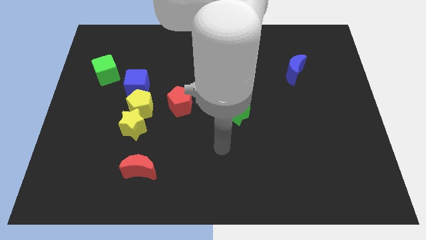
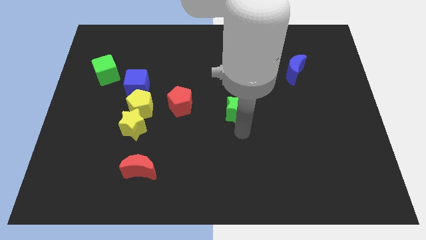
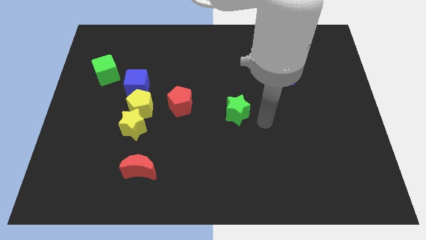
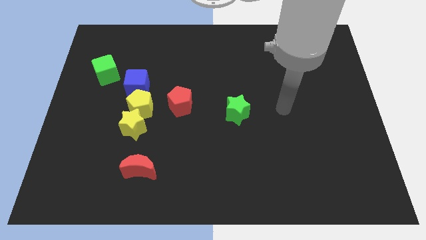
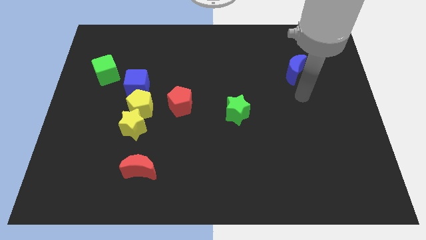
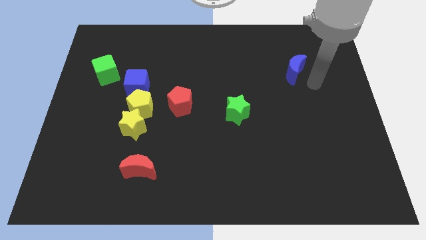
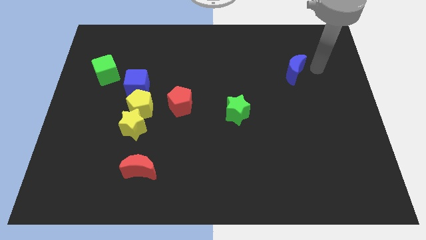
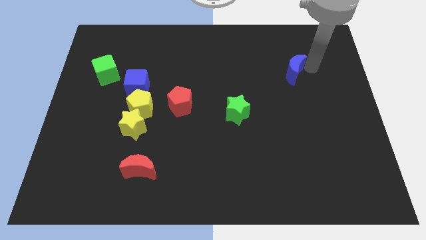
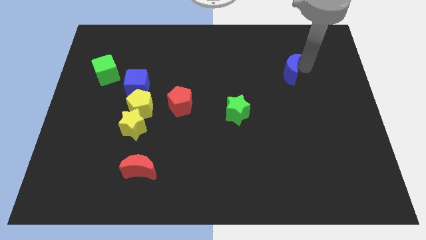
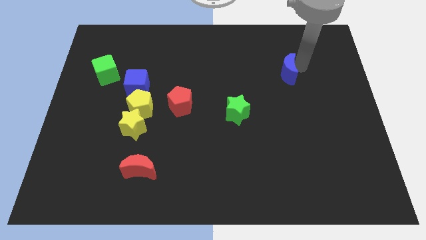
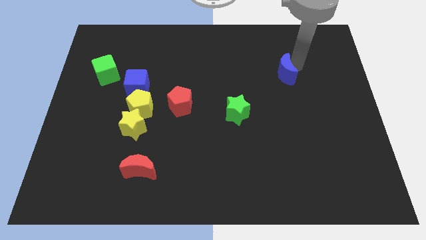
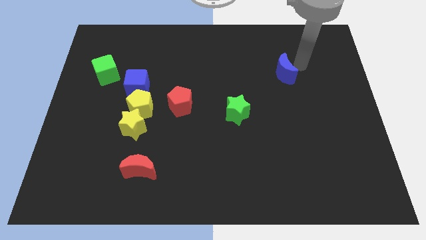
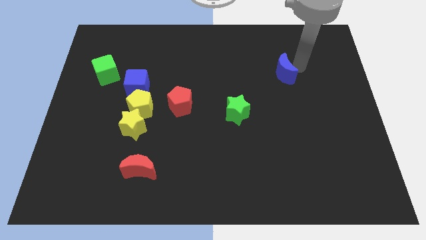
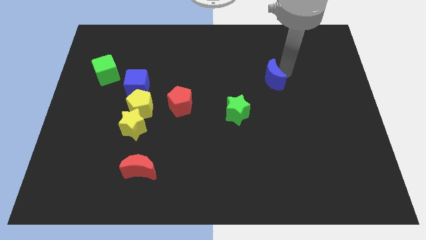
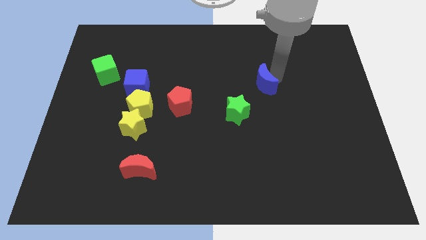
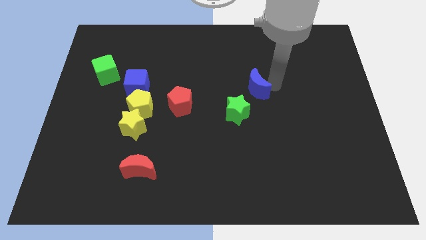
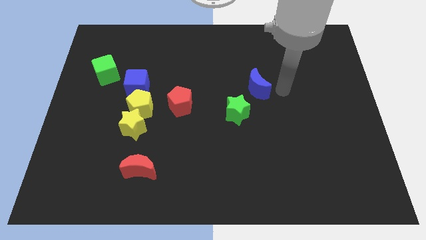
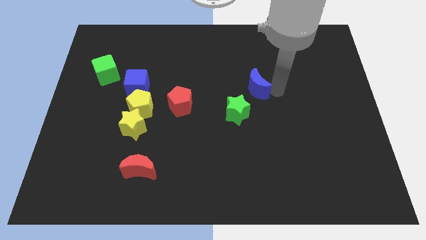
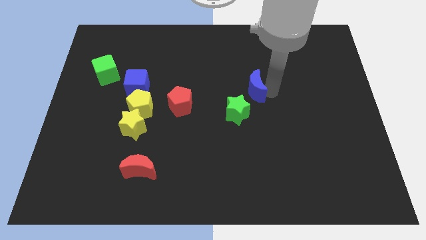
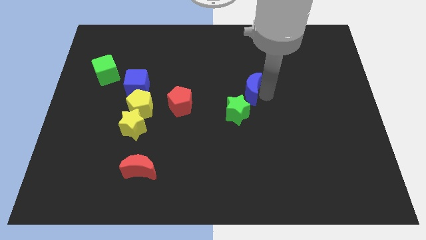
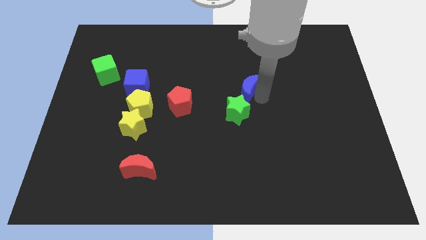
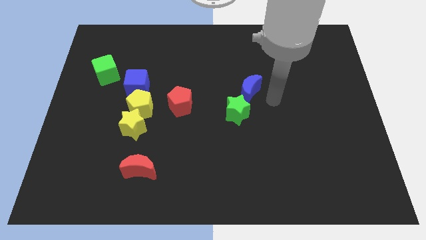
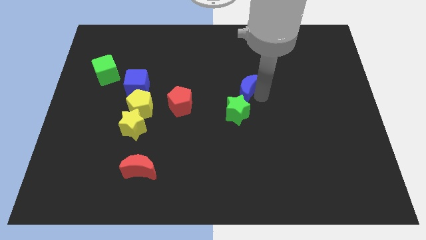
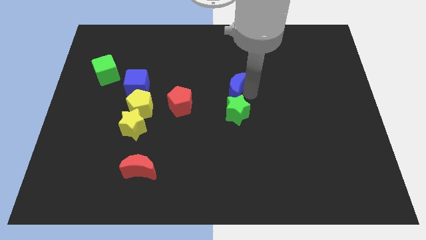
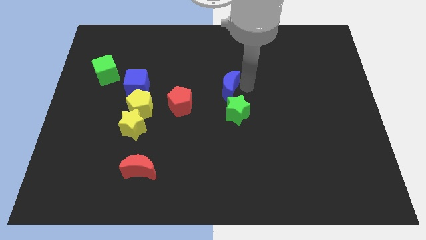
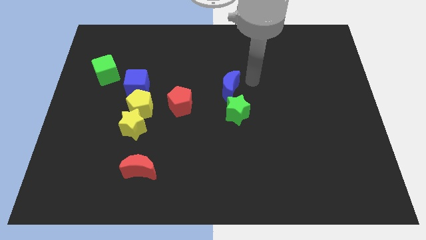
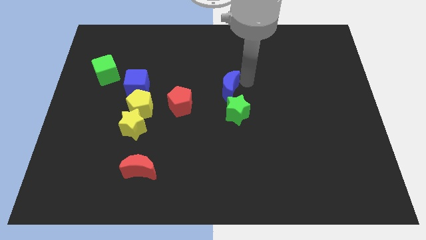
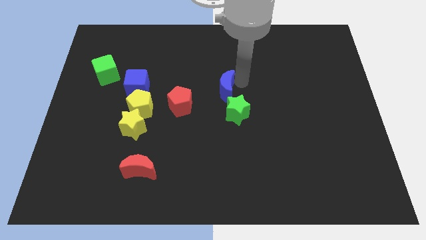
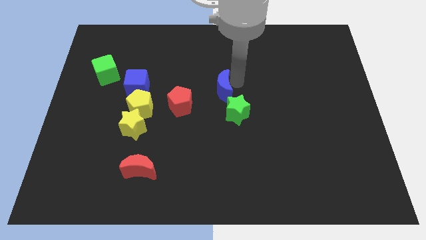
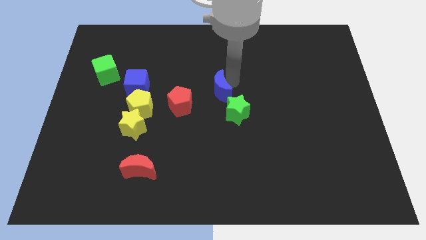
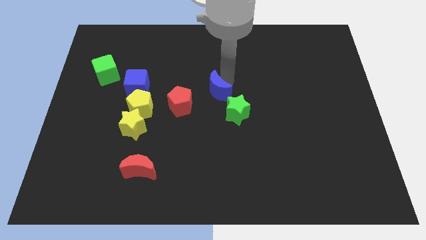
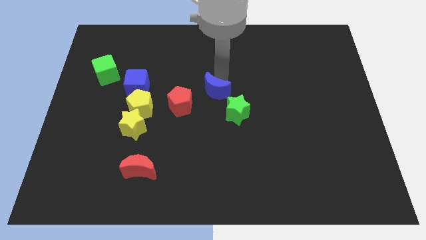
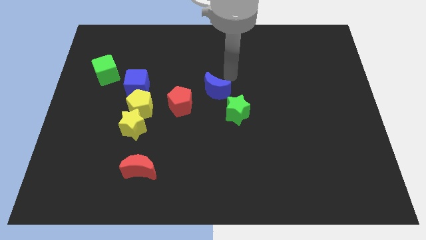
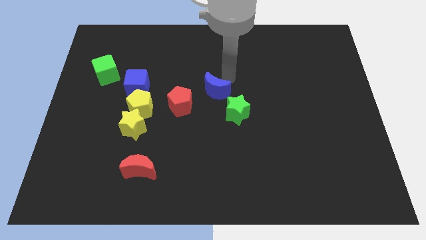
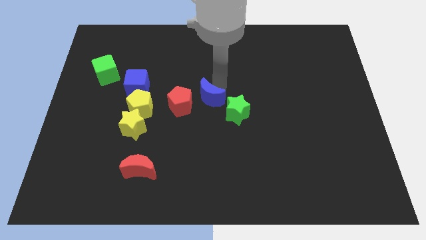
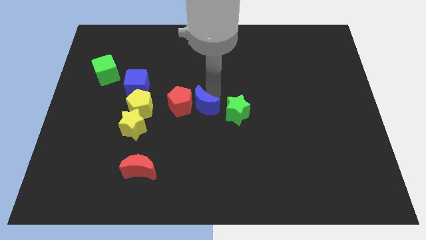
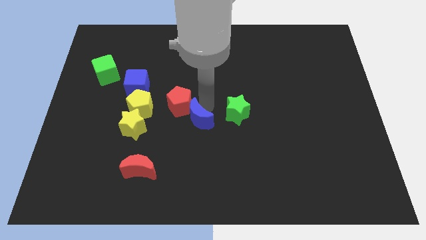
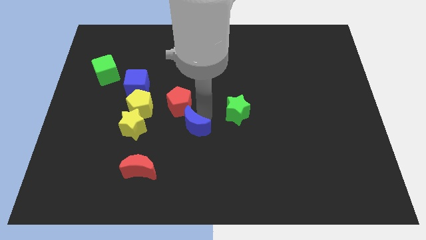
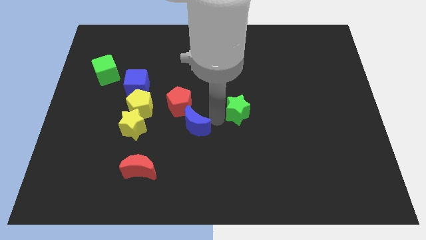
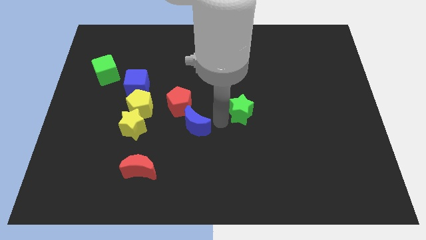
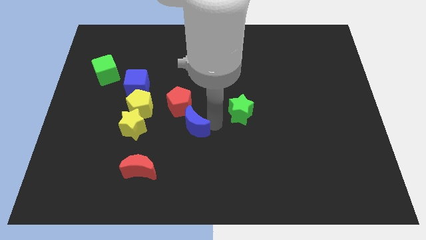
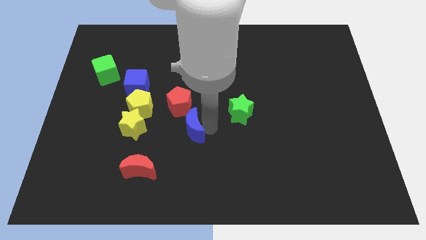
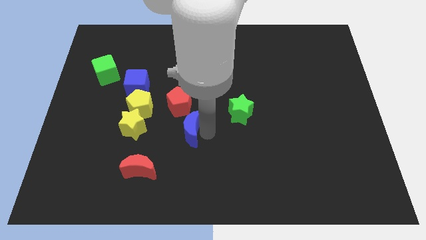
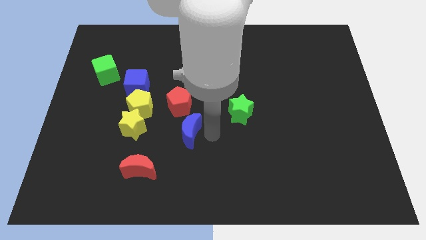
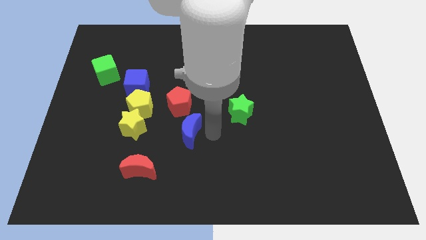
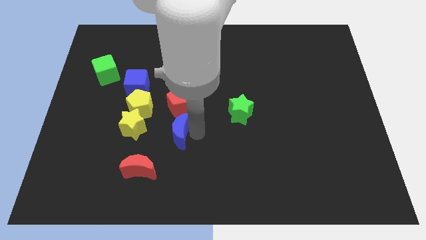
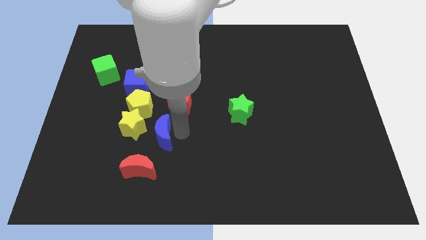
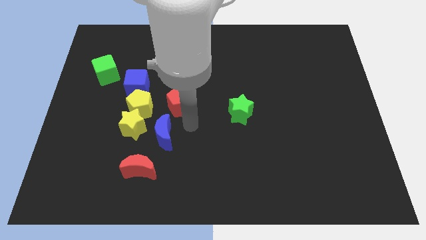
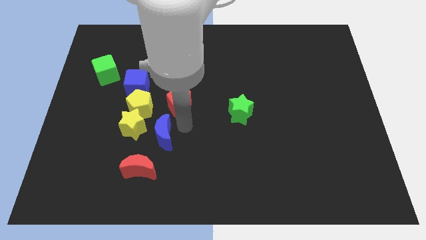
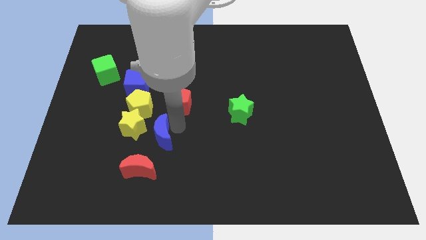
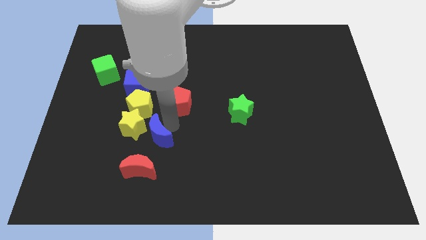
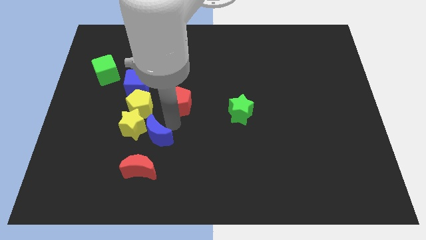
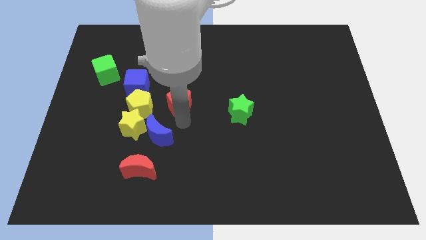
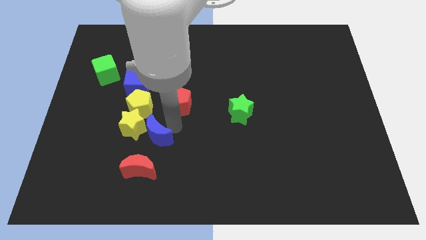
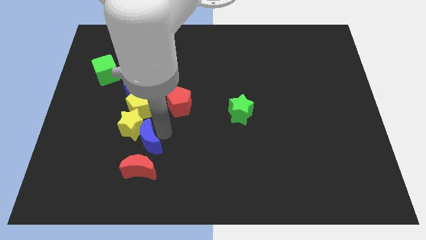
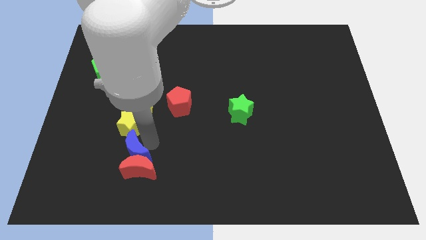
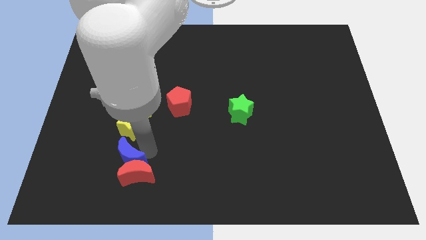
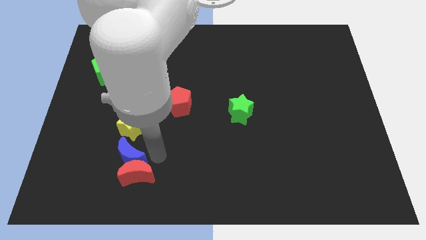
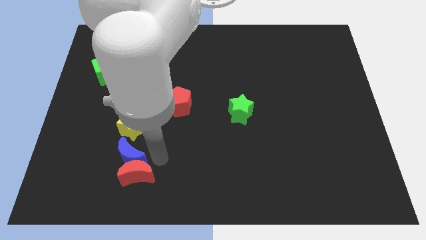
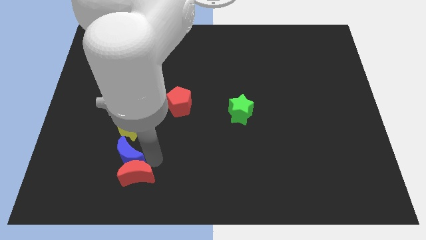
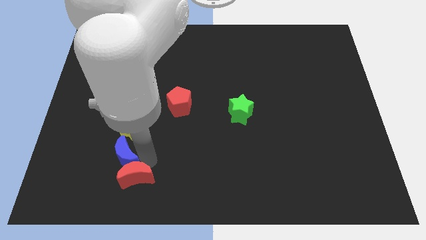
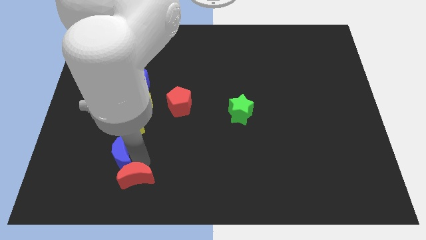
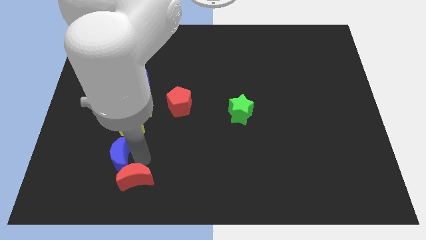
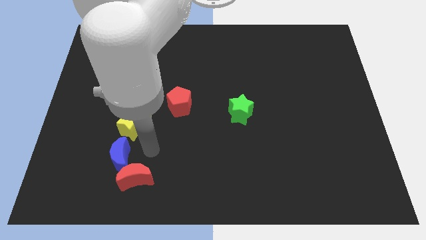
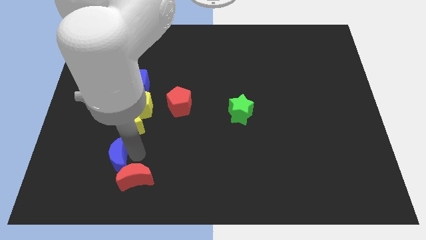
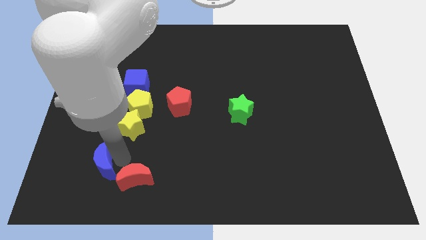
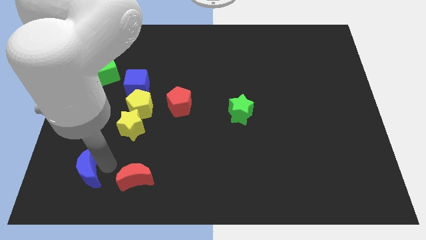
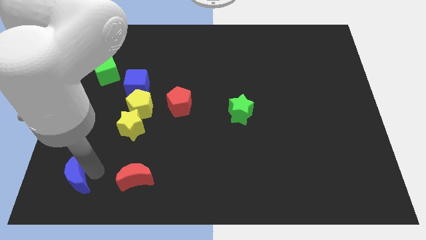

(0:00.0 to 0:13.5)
move the blue moon to the bottom left corner
